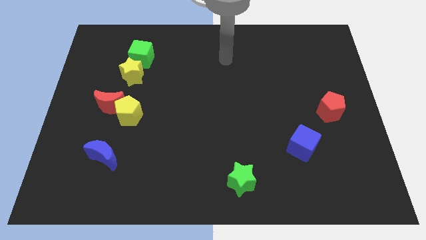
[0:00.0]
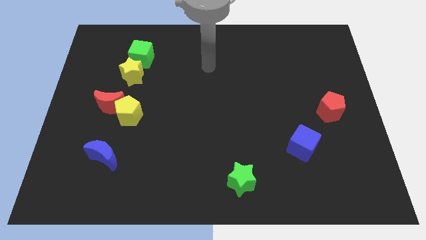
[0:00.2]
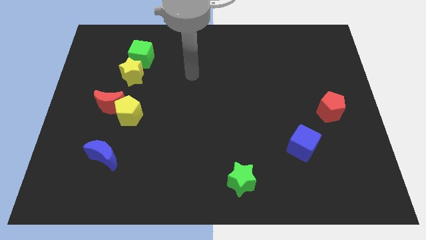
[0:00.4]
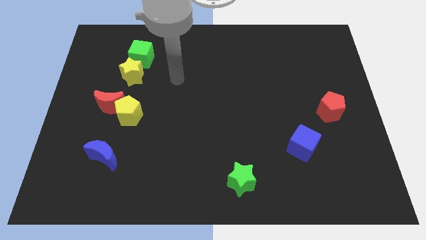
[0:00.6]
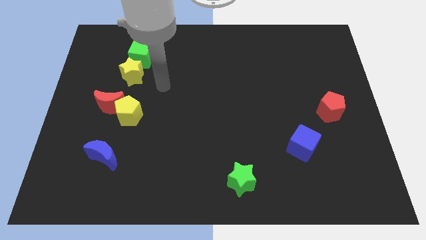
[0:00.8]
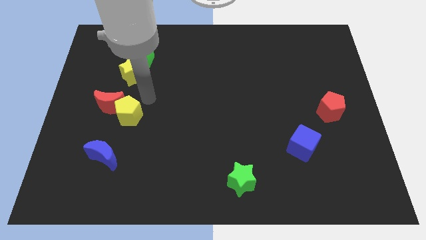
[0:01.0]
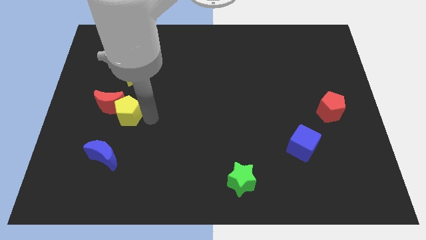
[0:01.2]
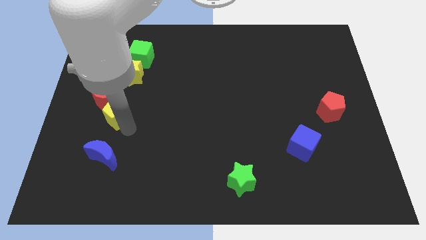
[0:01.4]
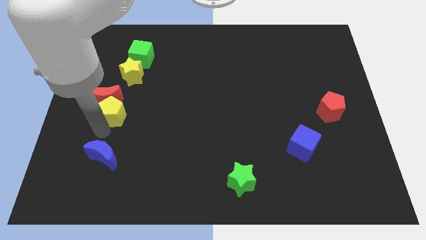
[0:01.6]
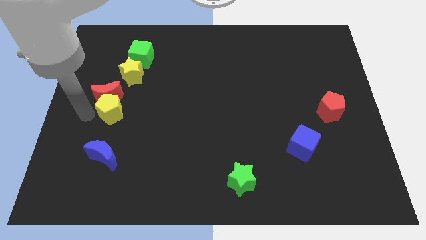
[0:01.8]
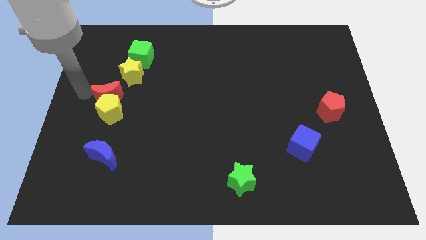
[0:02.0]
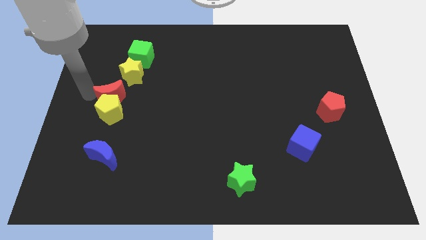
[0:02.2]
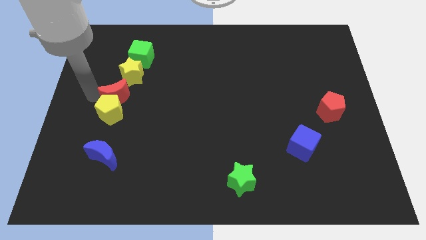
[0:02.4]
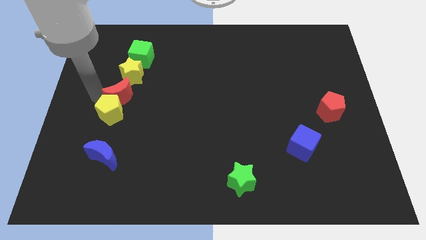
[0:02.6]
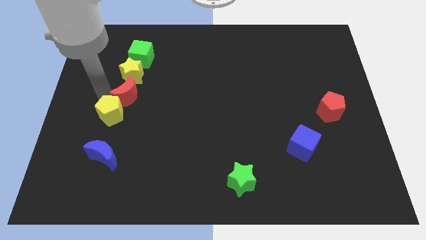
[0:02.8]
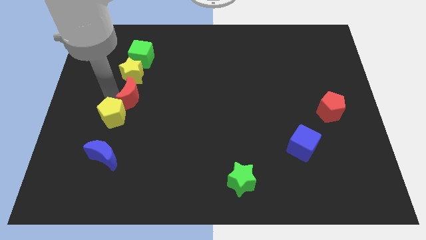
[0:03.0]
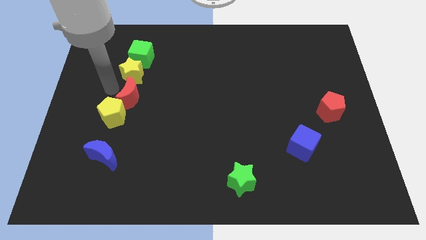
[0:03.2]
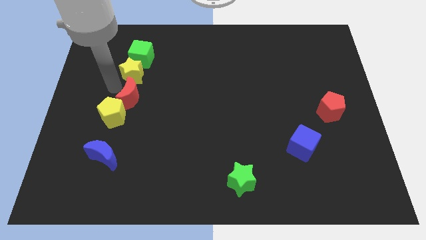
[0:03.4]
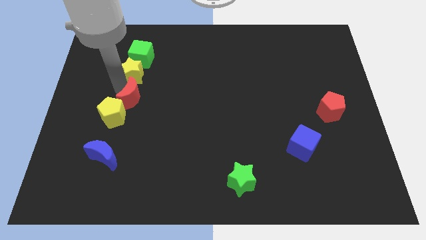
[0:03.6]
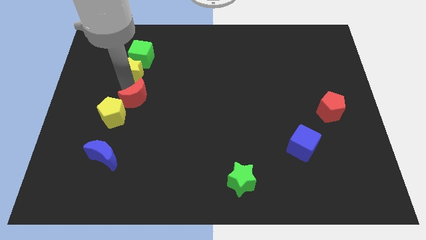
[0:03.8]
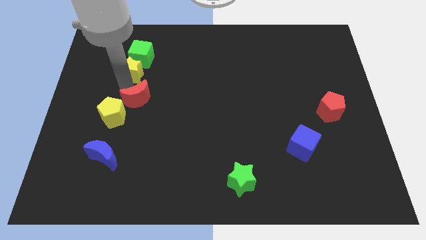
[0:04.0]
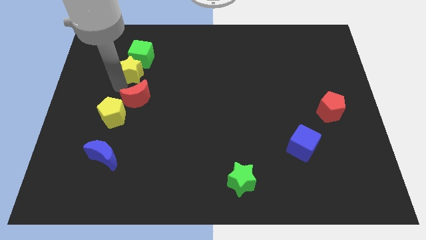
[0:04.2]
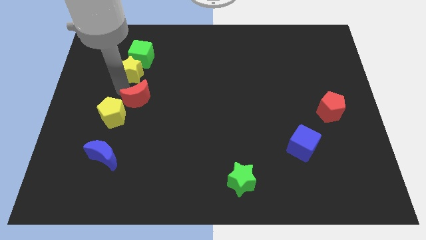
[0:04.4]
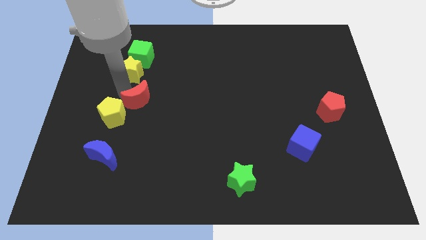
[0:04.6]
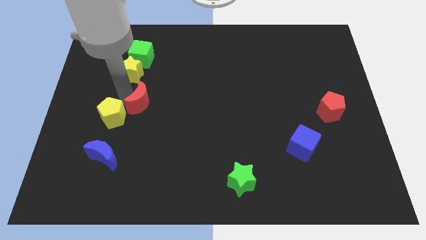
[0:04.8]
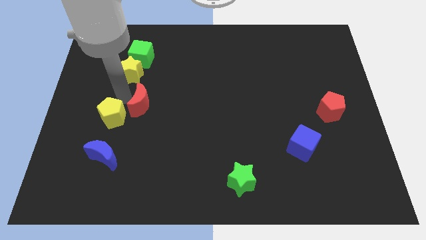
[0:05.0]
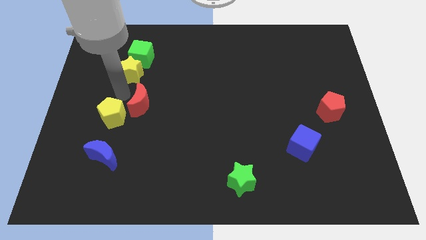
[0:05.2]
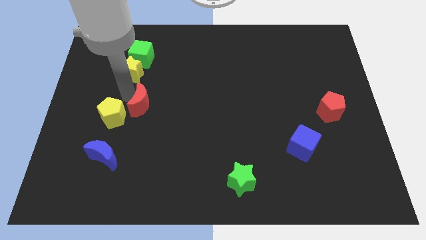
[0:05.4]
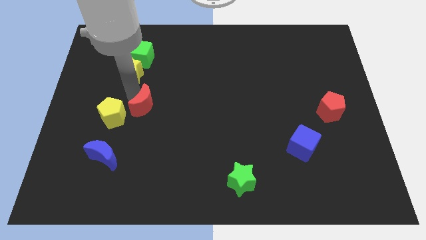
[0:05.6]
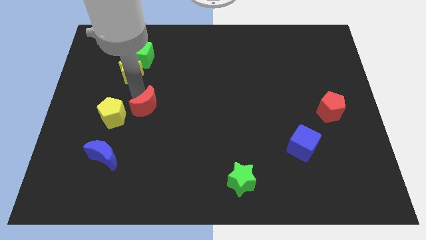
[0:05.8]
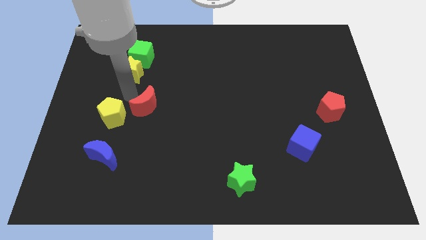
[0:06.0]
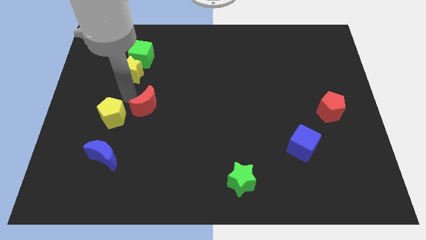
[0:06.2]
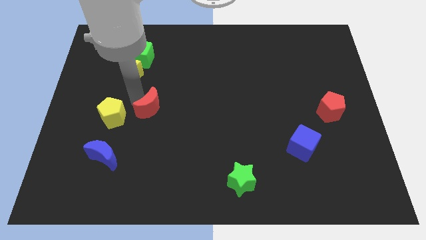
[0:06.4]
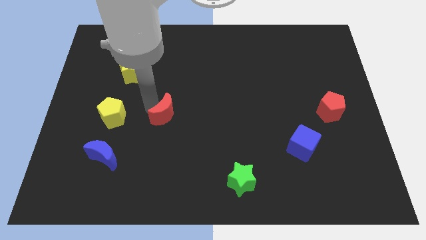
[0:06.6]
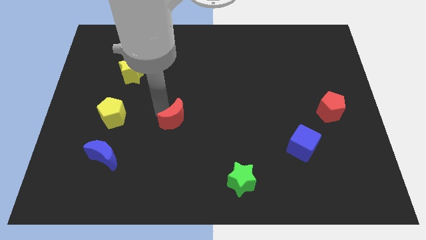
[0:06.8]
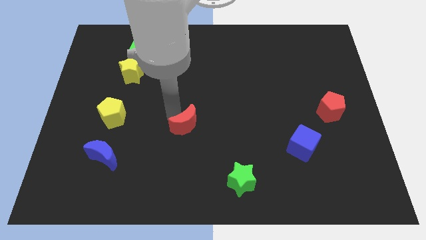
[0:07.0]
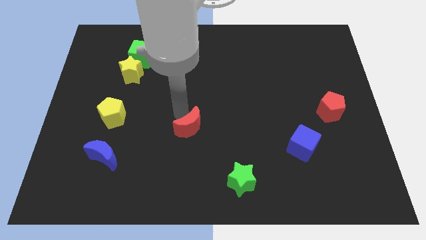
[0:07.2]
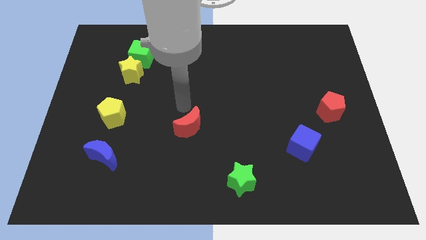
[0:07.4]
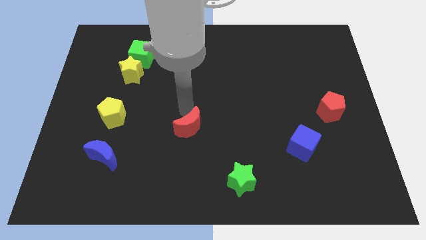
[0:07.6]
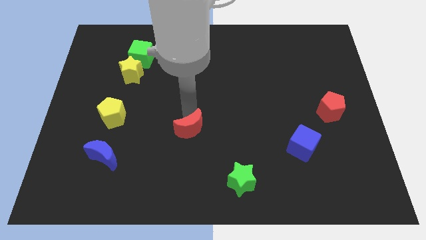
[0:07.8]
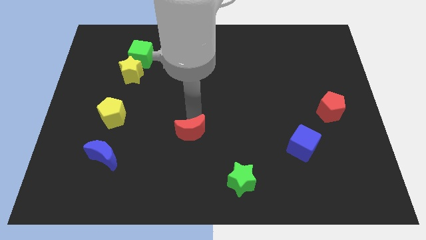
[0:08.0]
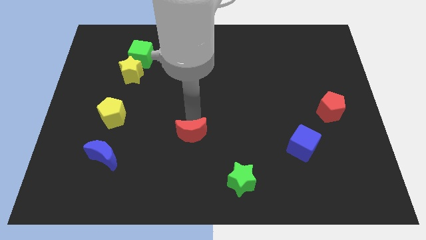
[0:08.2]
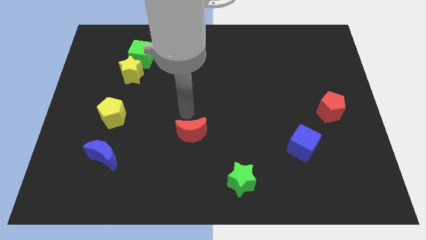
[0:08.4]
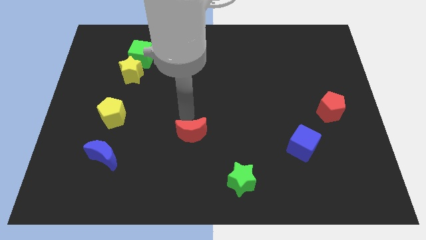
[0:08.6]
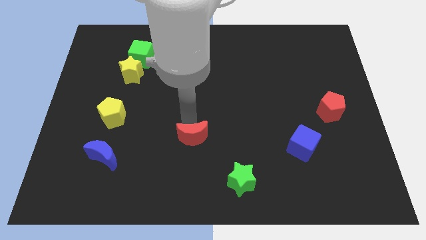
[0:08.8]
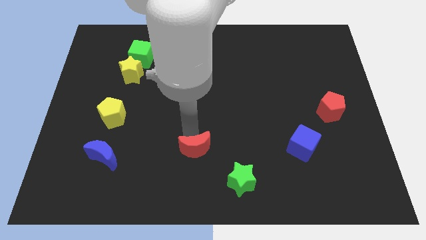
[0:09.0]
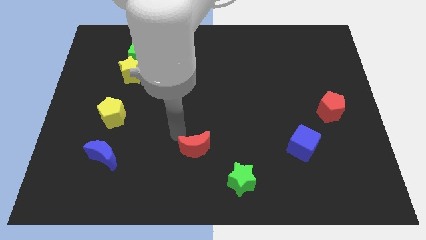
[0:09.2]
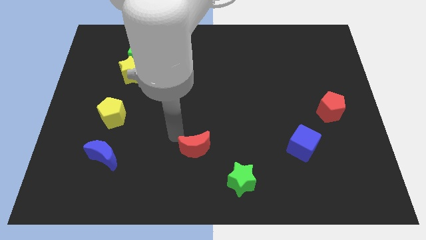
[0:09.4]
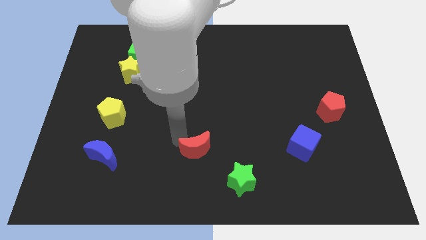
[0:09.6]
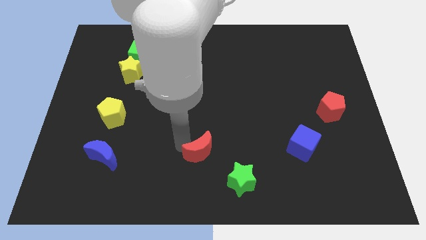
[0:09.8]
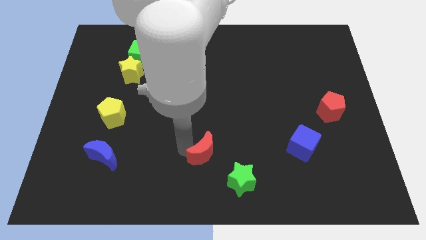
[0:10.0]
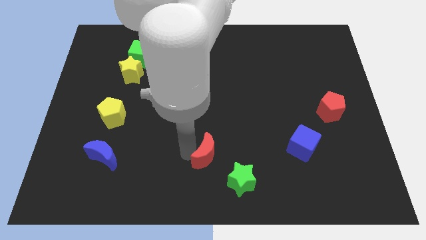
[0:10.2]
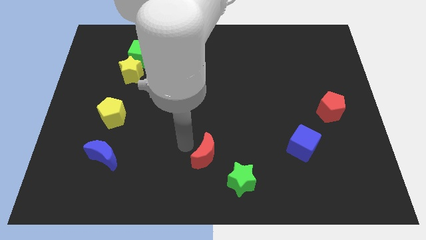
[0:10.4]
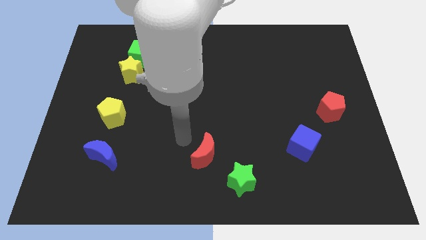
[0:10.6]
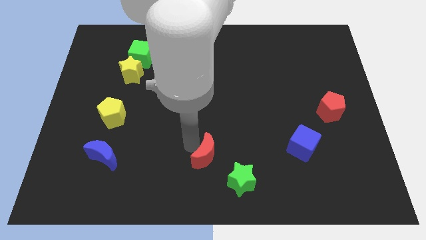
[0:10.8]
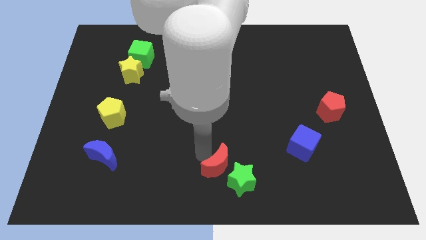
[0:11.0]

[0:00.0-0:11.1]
move the red moon to the green star

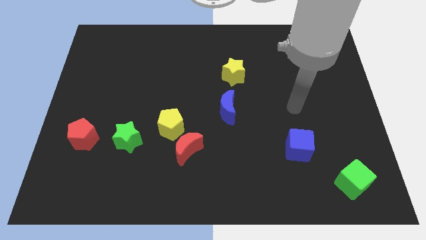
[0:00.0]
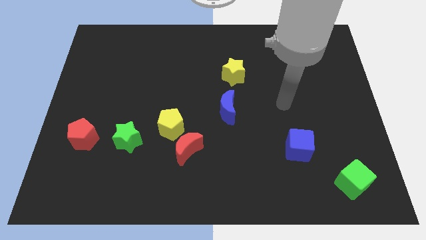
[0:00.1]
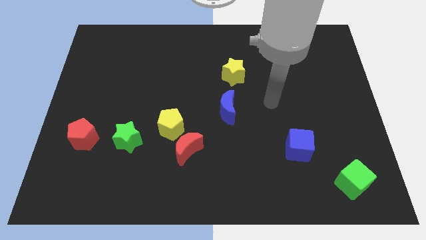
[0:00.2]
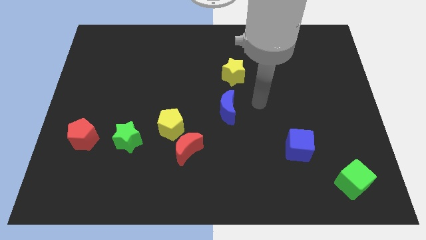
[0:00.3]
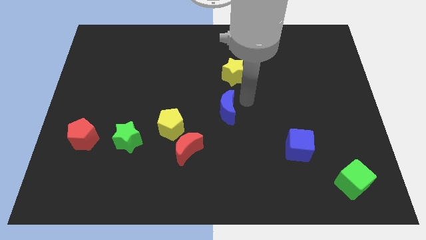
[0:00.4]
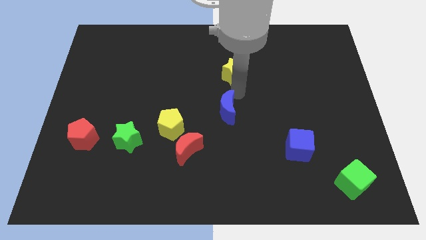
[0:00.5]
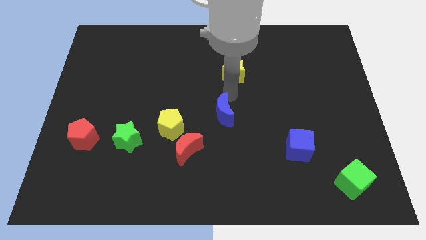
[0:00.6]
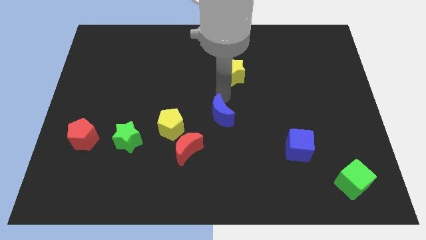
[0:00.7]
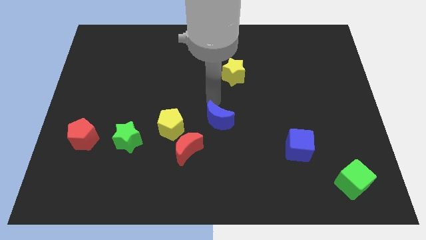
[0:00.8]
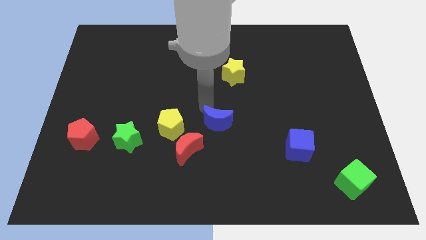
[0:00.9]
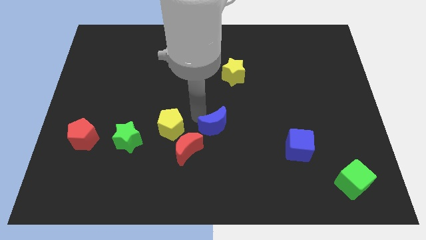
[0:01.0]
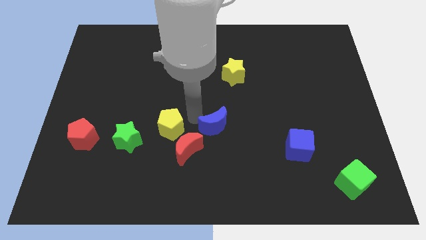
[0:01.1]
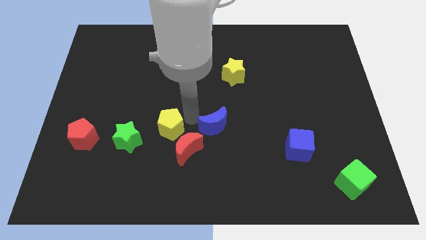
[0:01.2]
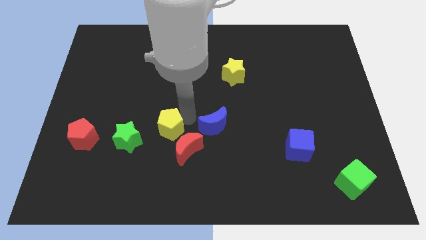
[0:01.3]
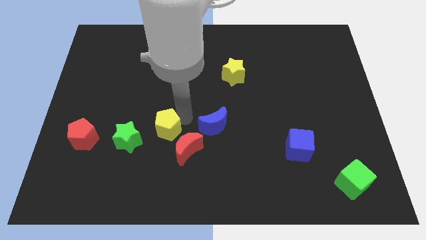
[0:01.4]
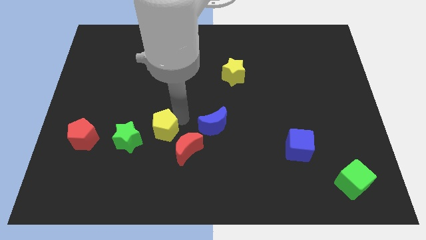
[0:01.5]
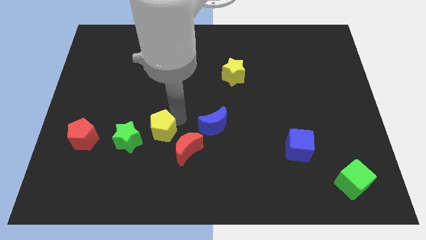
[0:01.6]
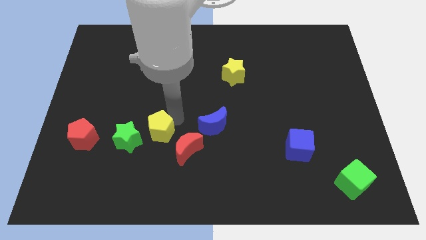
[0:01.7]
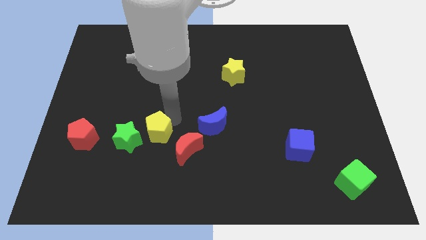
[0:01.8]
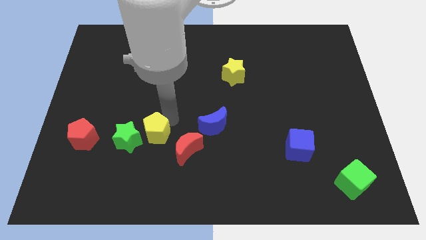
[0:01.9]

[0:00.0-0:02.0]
put the yellow pentagon towards the green star
